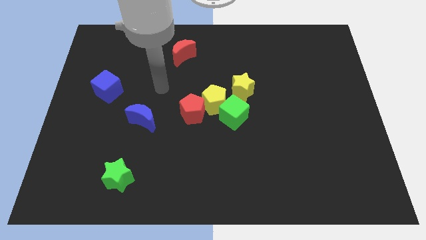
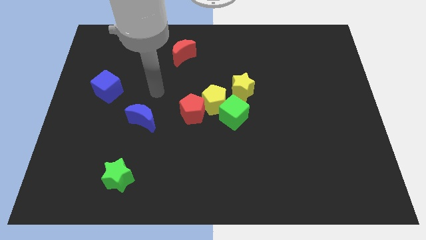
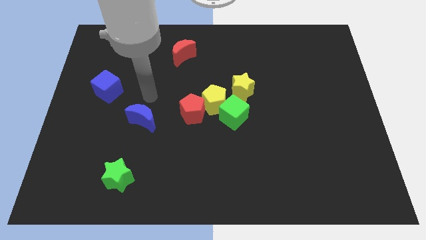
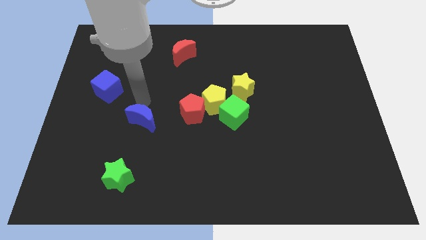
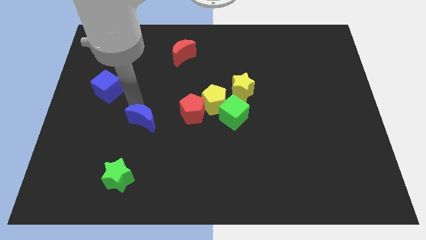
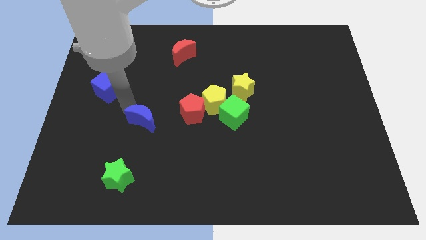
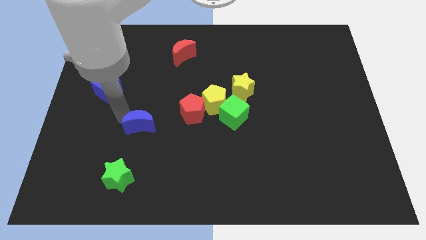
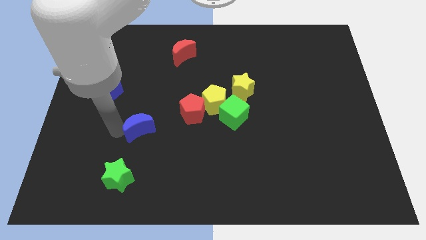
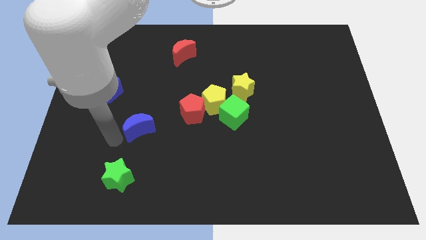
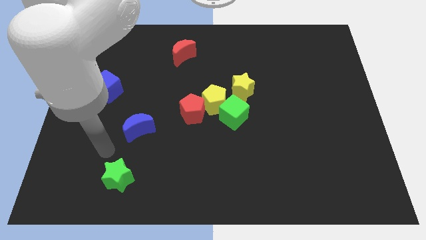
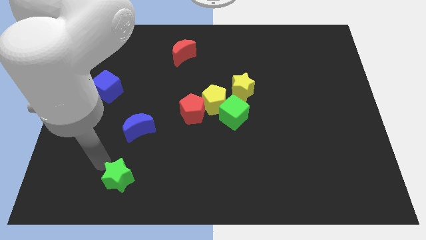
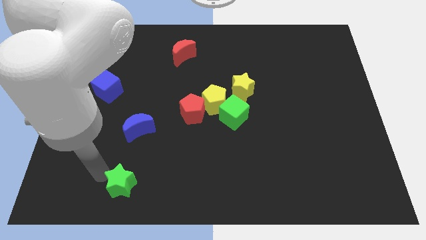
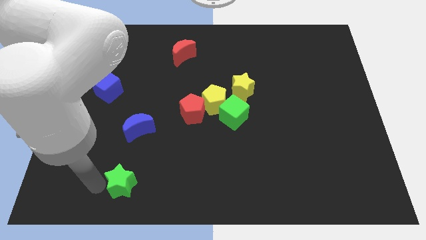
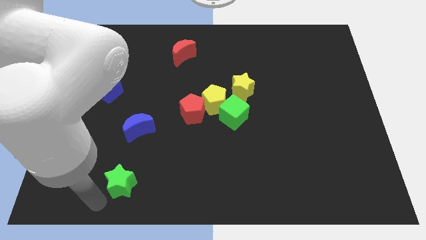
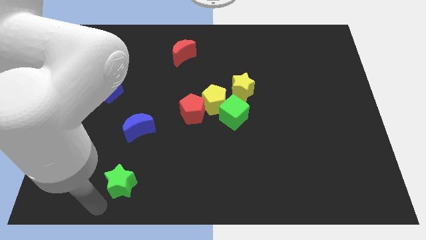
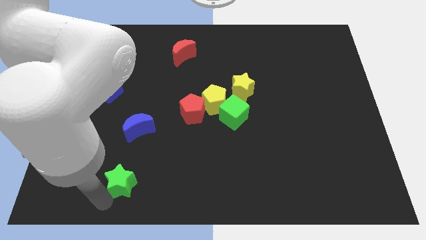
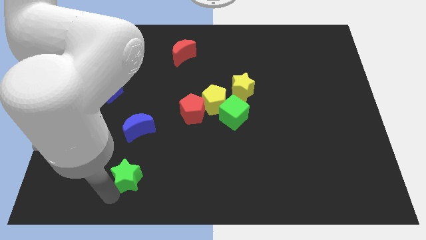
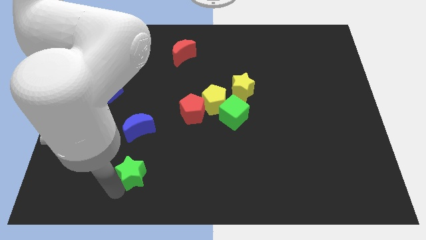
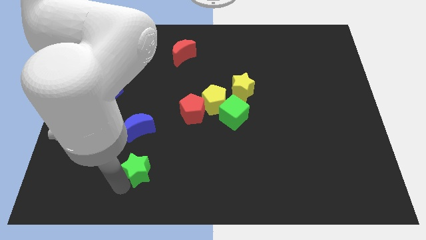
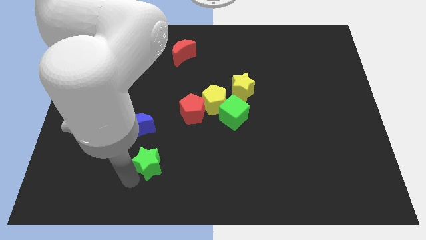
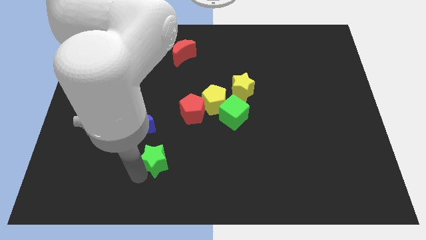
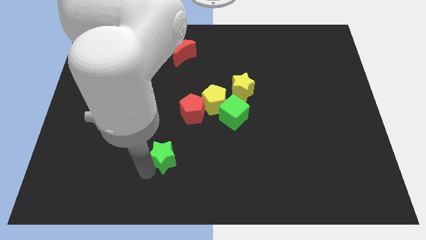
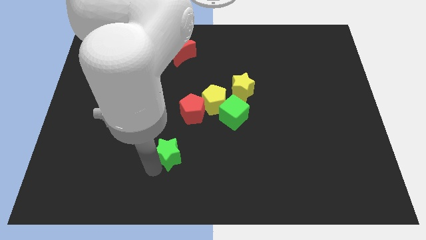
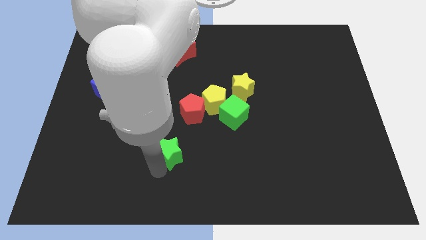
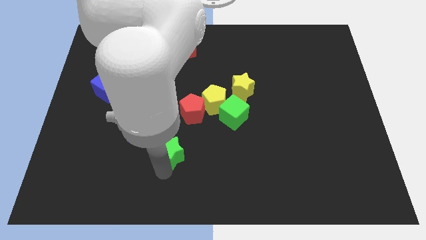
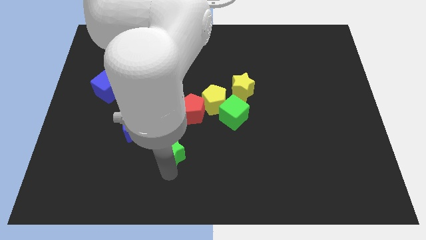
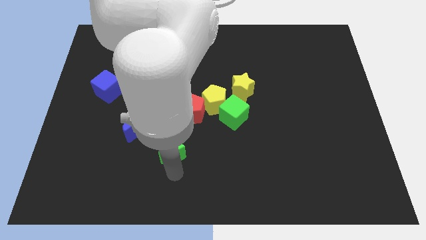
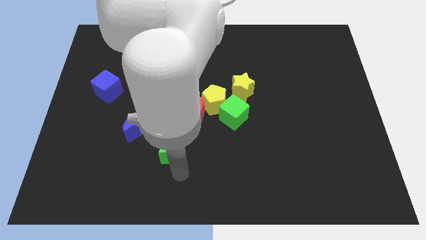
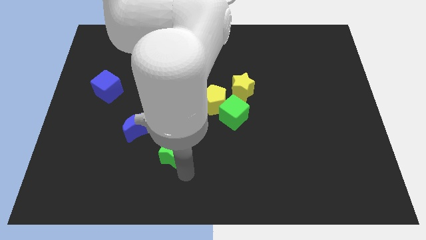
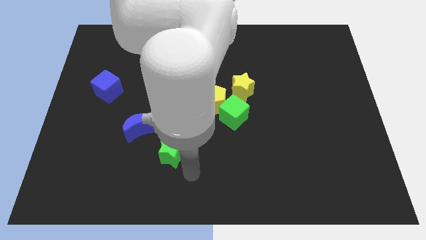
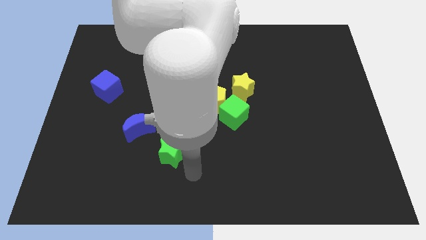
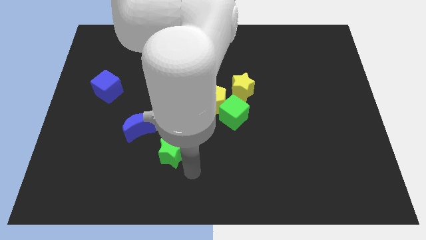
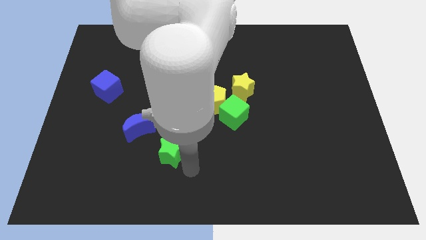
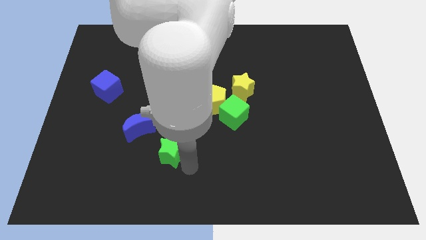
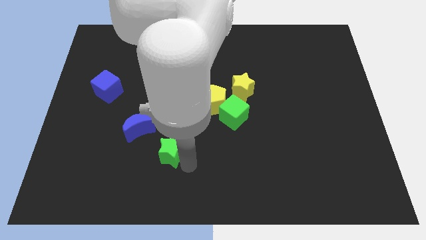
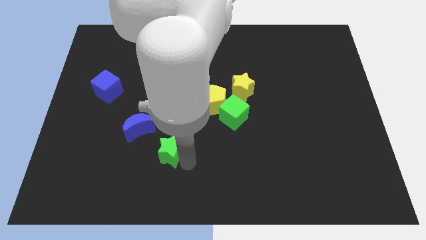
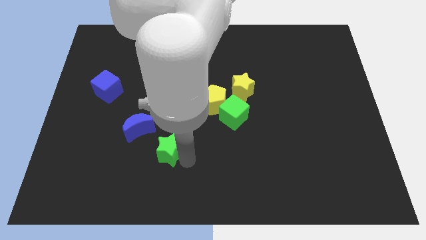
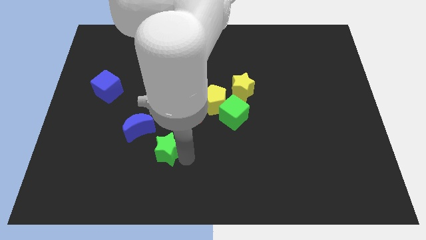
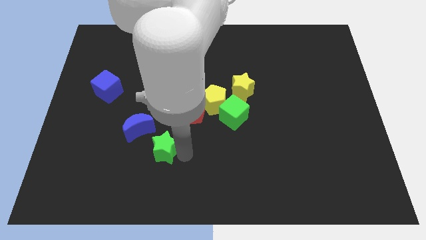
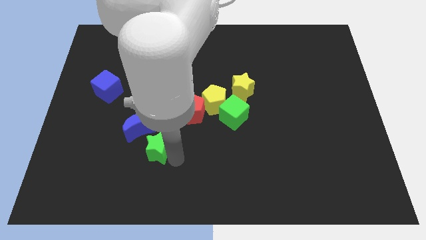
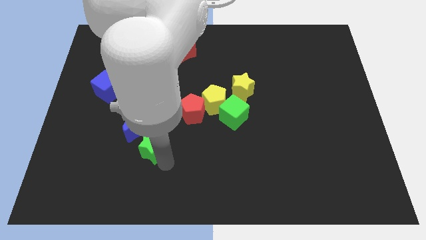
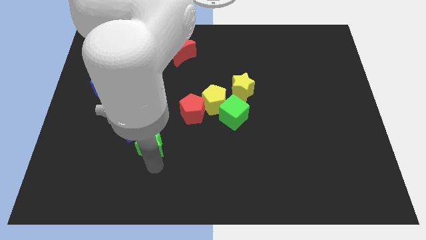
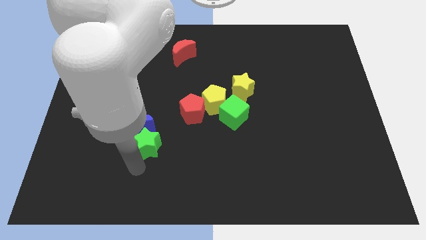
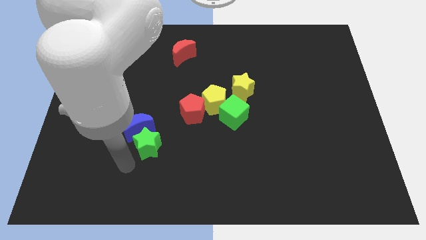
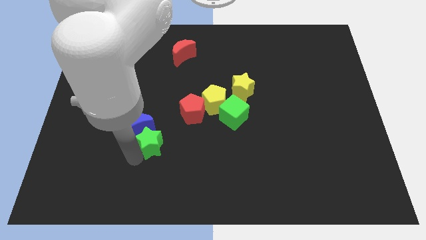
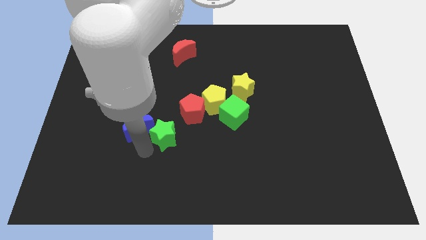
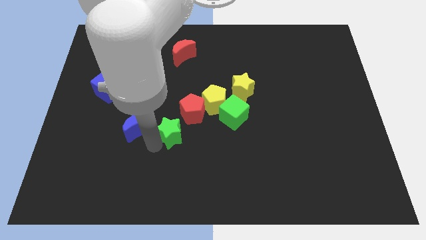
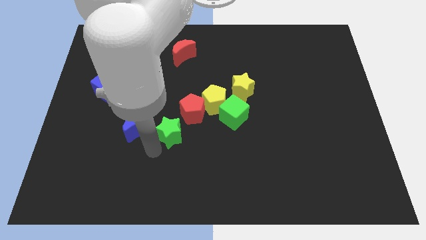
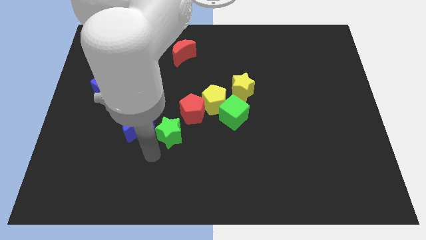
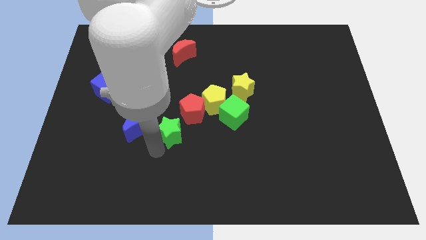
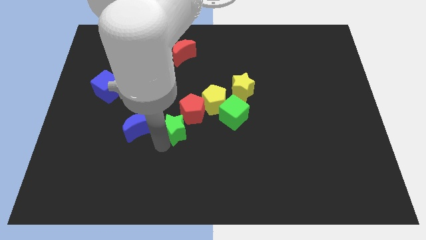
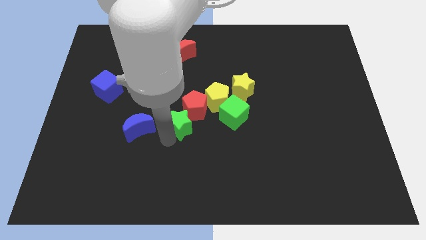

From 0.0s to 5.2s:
put the green star next to the red pentagon

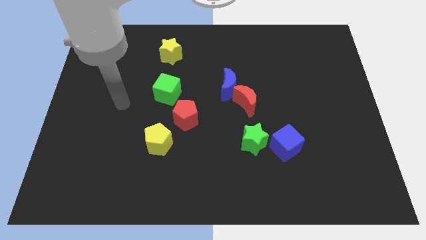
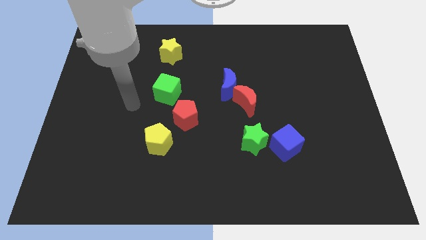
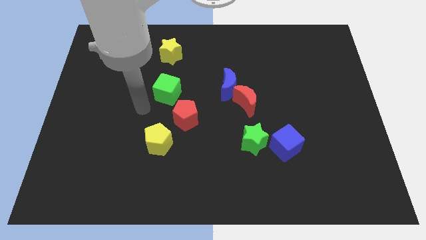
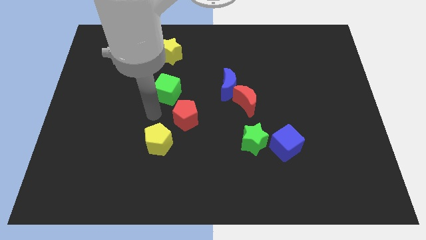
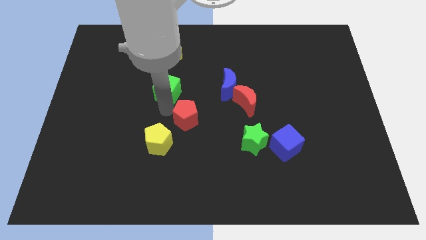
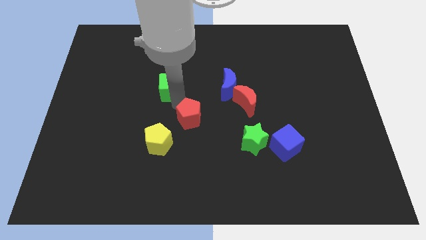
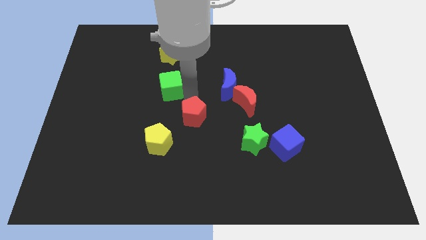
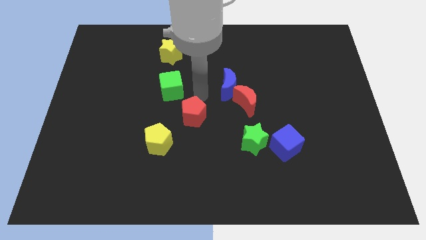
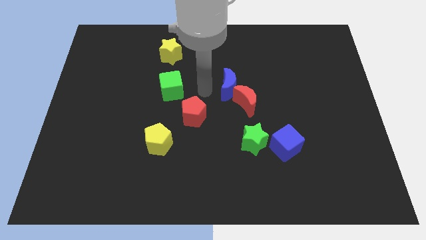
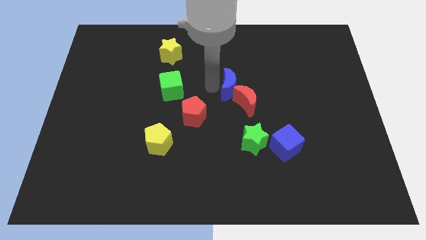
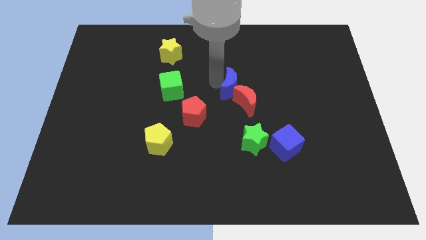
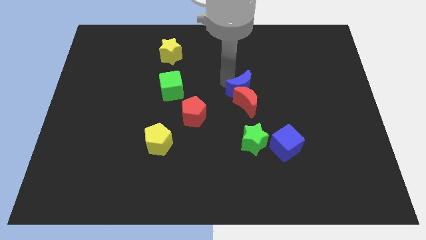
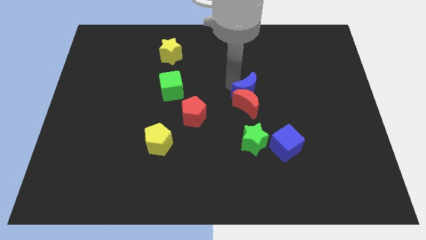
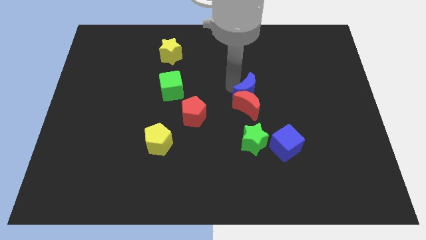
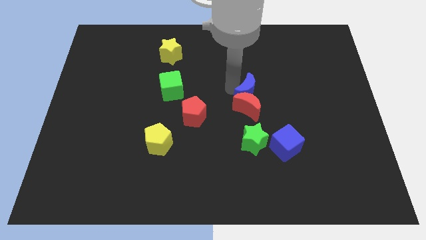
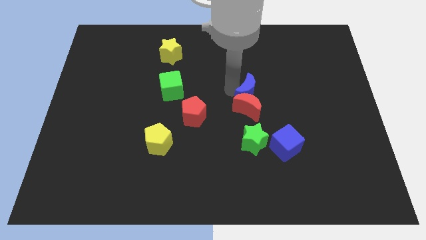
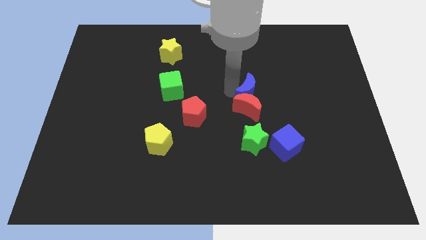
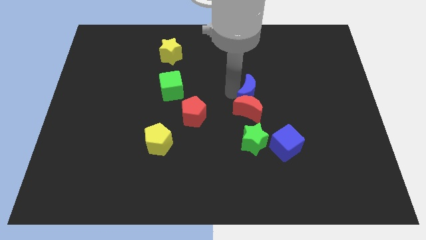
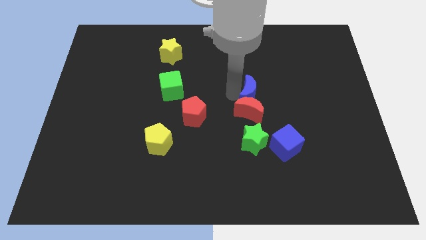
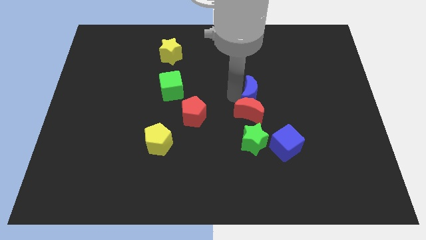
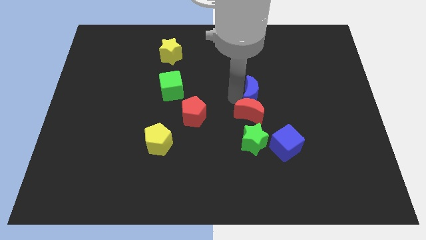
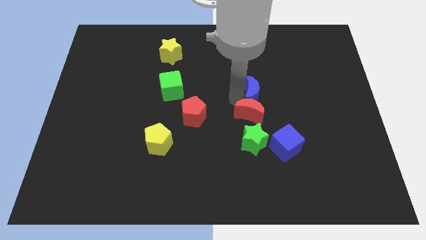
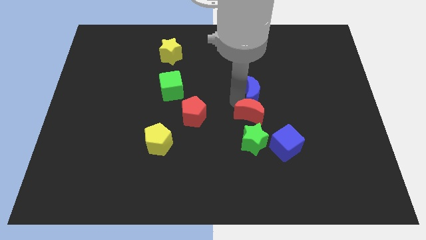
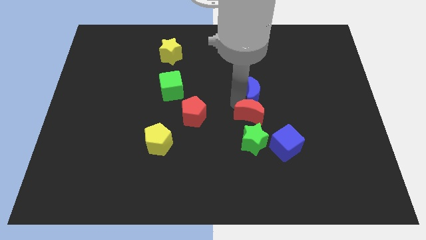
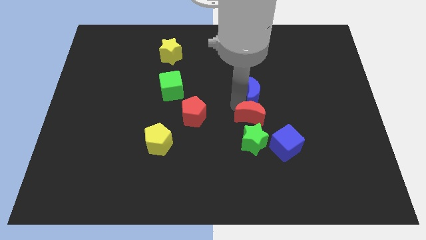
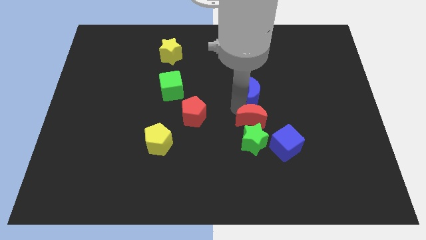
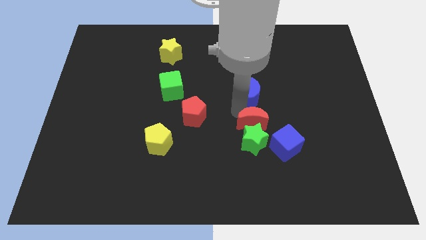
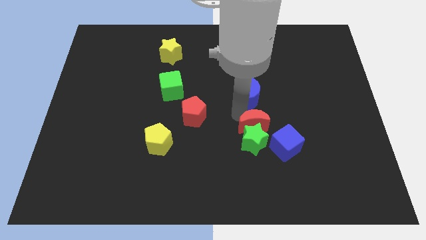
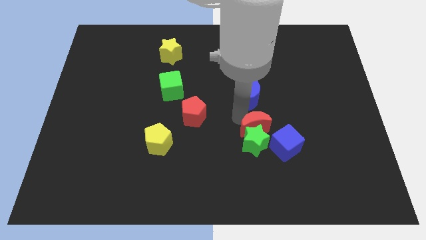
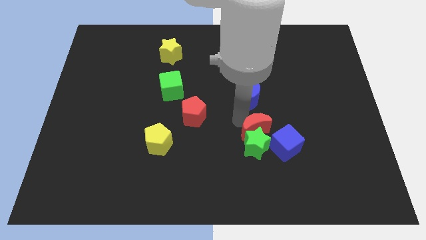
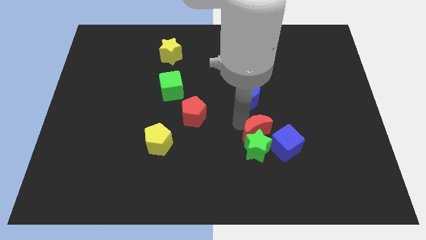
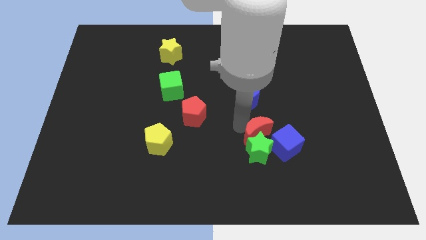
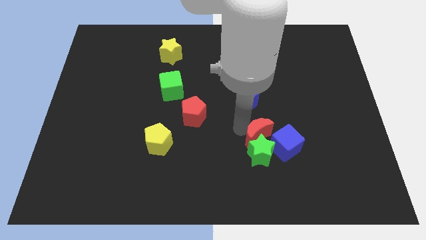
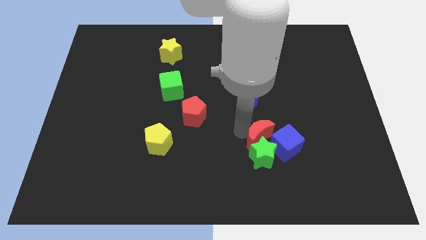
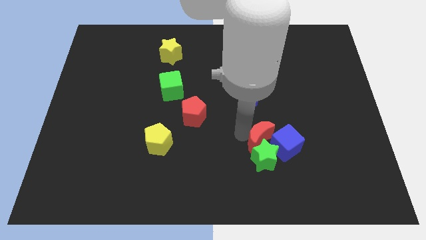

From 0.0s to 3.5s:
put the red moon towards the blue cube
